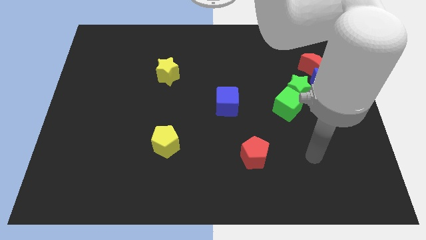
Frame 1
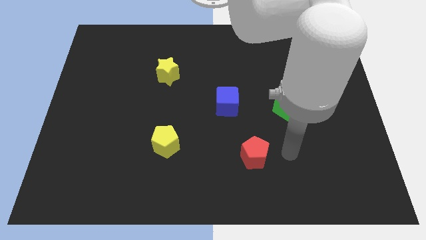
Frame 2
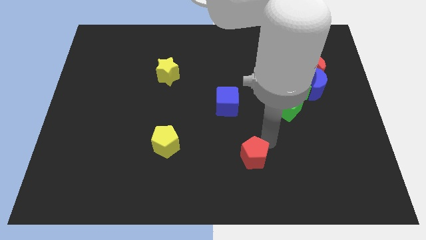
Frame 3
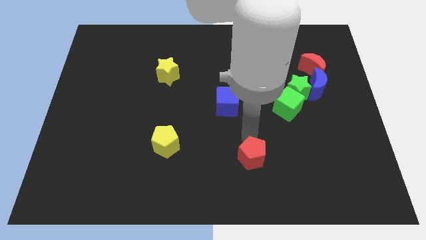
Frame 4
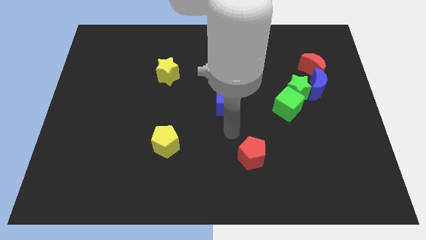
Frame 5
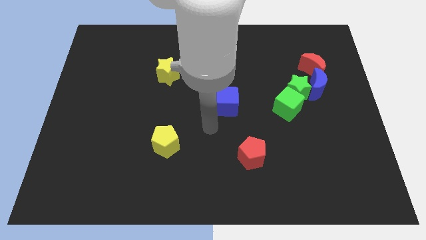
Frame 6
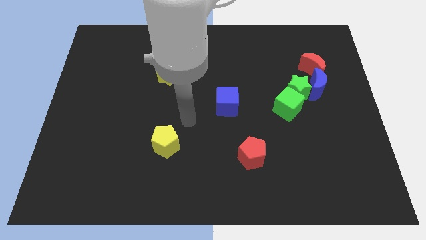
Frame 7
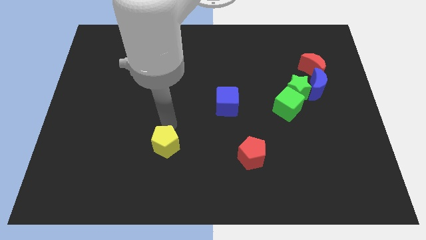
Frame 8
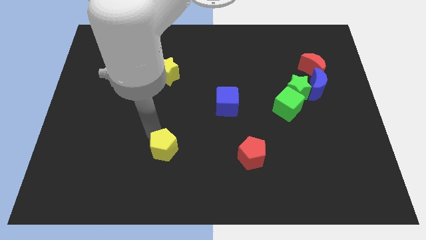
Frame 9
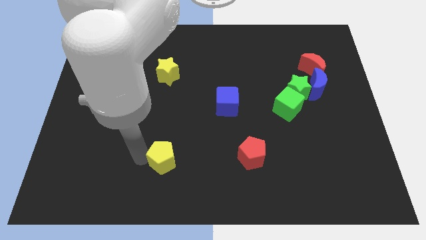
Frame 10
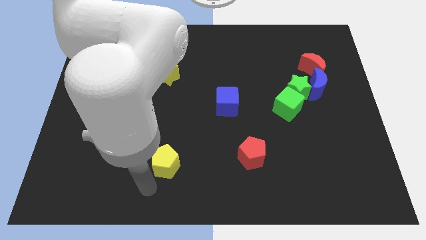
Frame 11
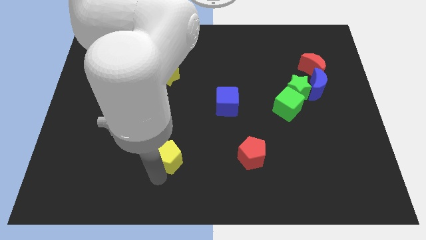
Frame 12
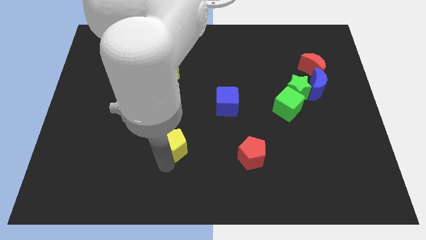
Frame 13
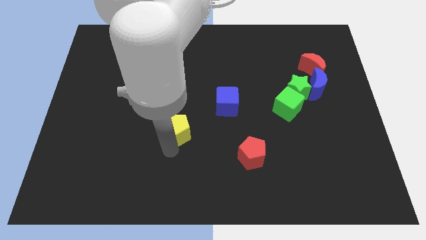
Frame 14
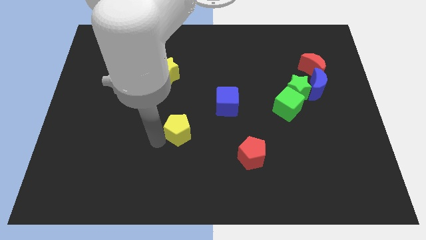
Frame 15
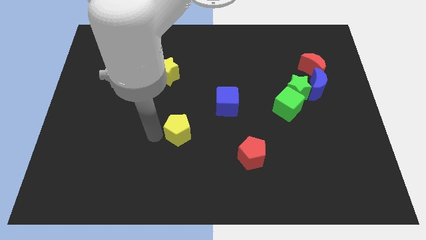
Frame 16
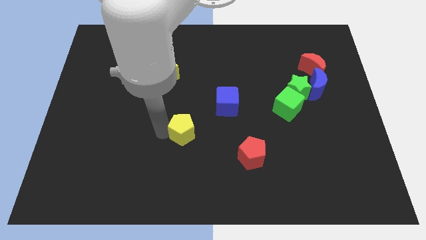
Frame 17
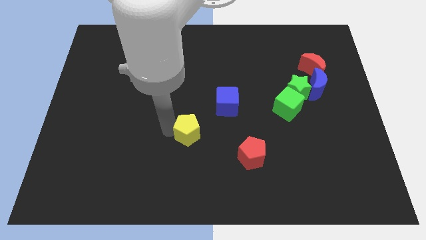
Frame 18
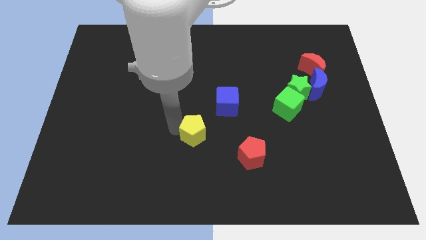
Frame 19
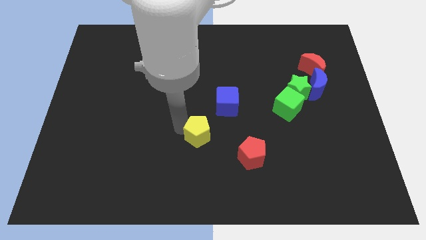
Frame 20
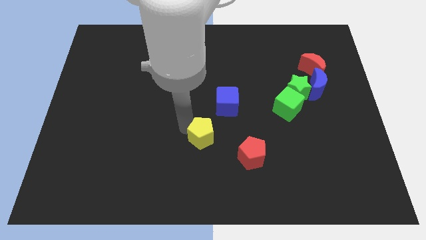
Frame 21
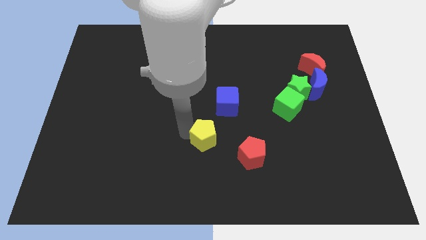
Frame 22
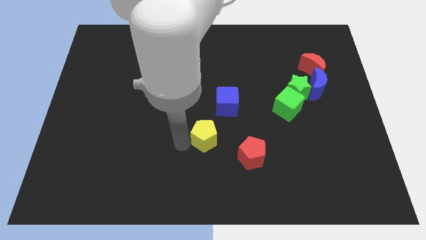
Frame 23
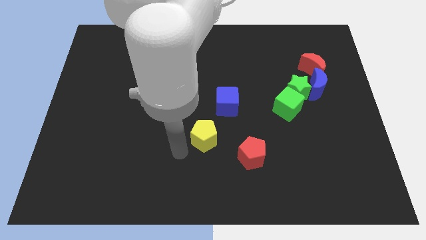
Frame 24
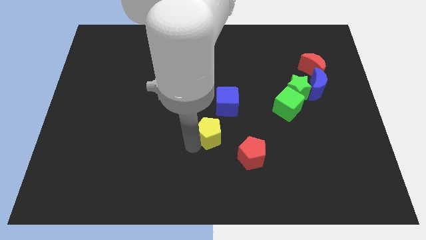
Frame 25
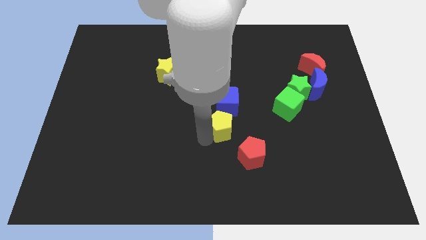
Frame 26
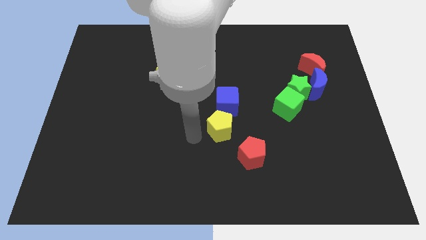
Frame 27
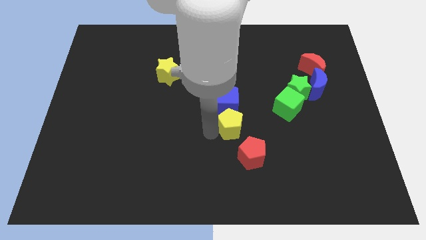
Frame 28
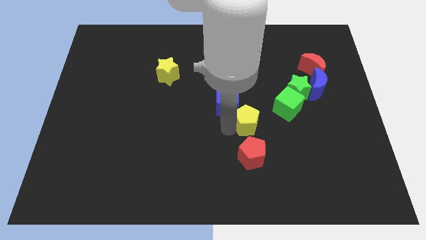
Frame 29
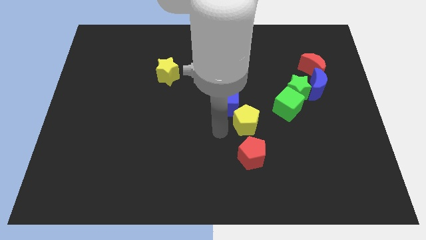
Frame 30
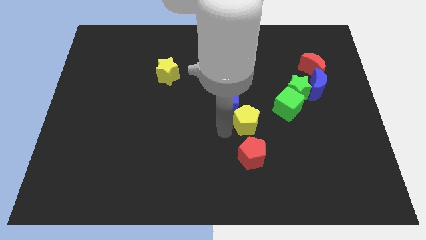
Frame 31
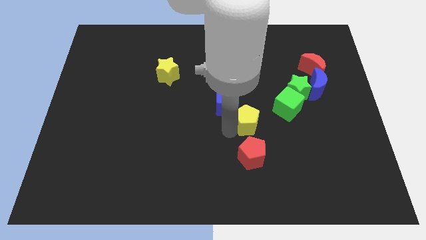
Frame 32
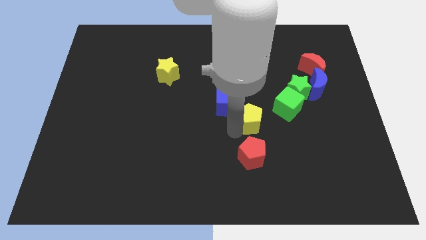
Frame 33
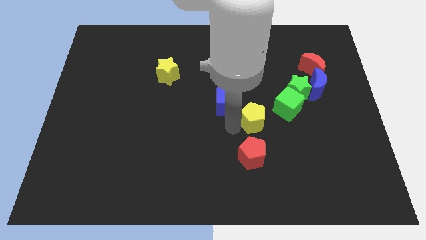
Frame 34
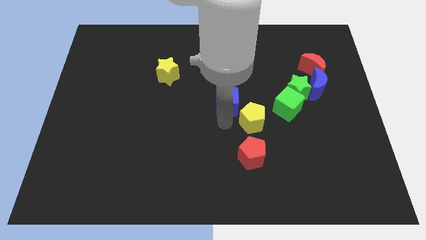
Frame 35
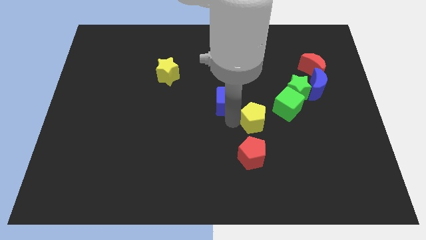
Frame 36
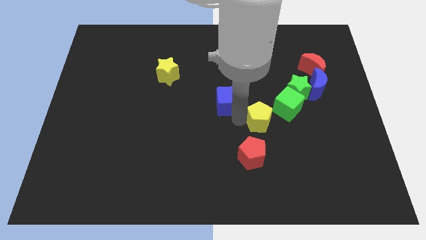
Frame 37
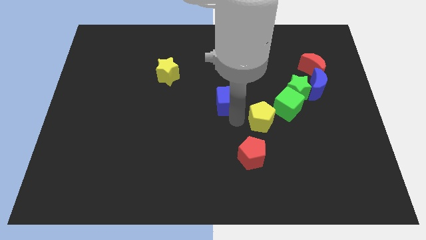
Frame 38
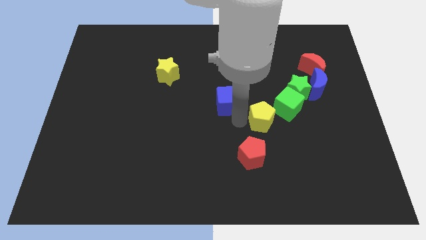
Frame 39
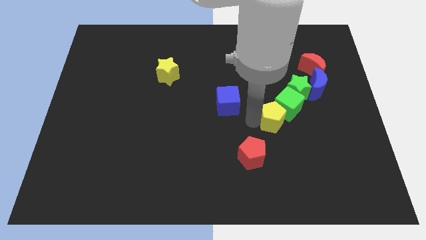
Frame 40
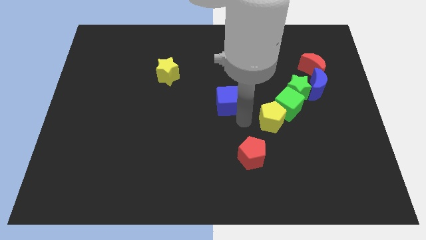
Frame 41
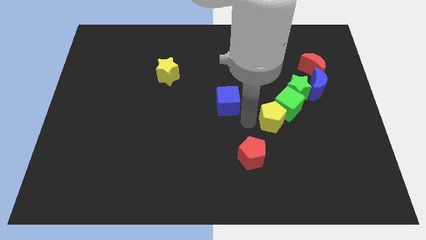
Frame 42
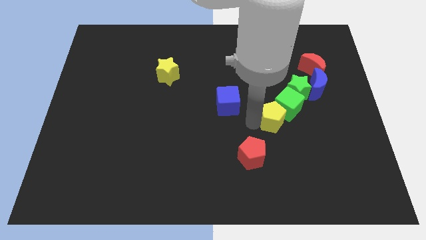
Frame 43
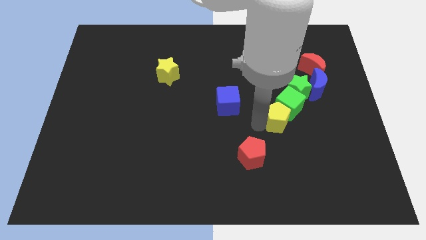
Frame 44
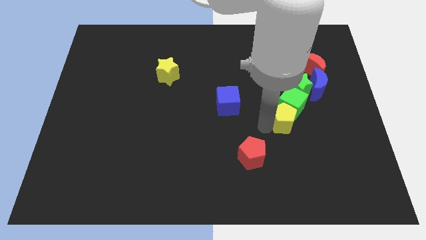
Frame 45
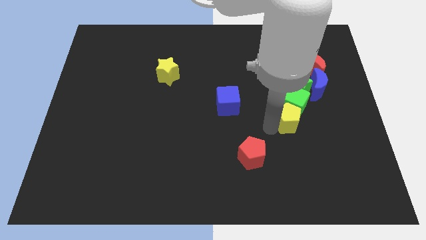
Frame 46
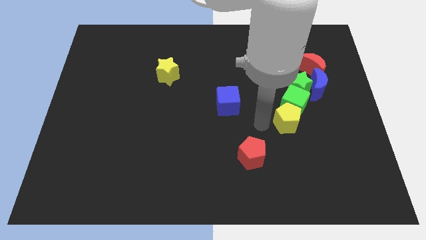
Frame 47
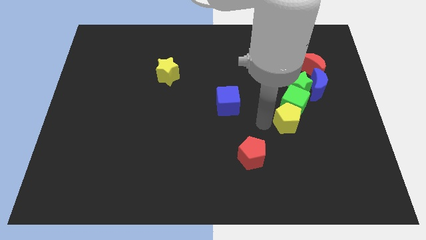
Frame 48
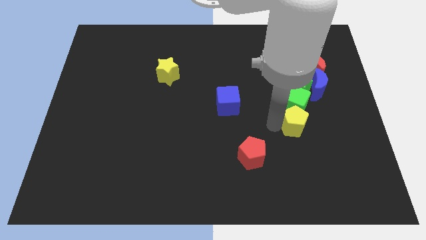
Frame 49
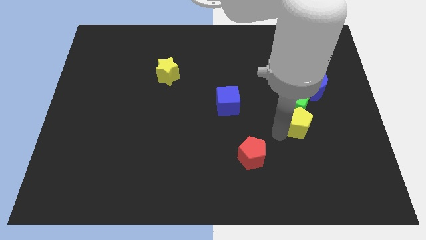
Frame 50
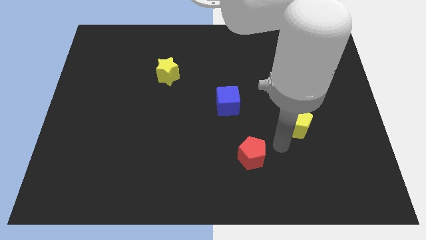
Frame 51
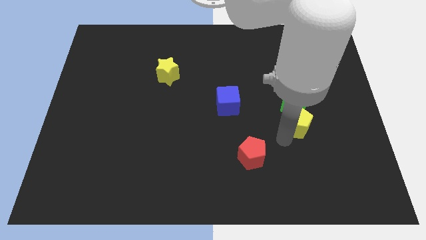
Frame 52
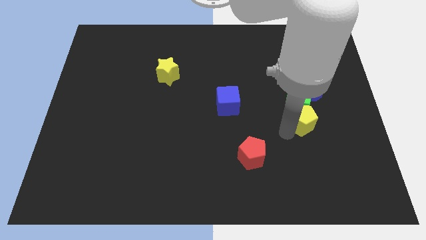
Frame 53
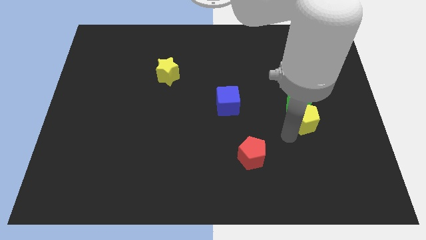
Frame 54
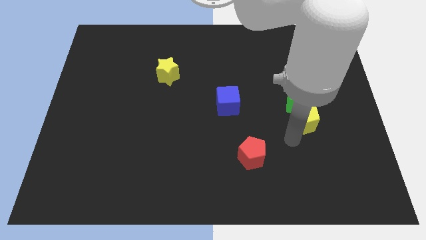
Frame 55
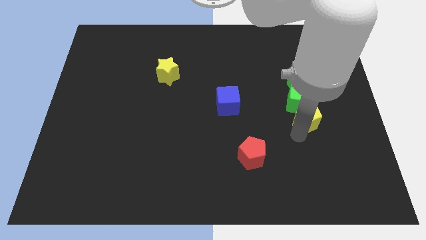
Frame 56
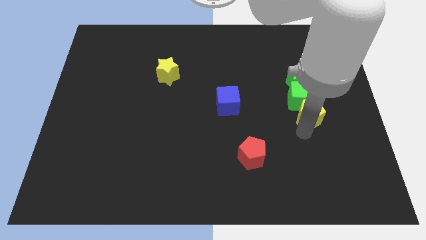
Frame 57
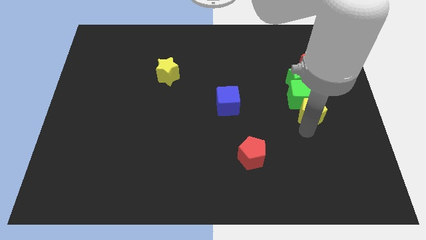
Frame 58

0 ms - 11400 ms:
slide the yellow pentagon to the bottom of the red moon

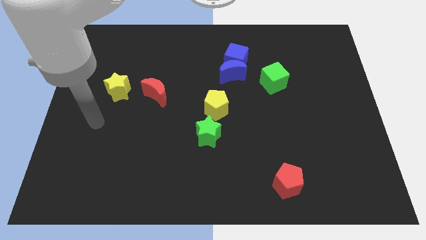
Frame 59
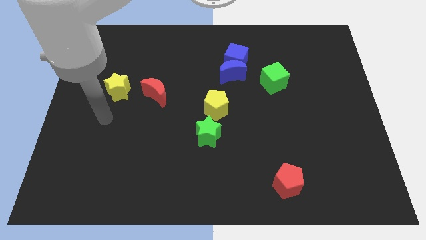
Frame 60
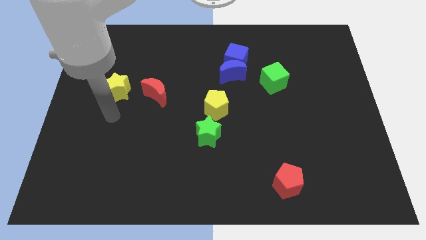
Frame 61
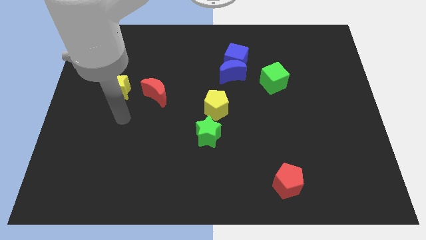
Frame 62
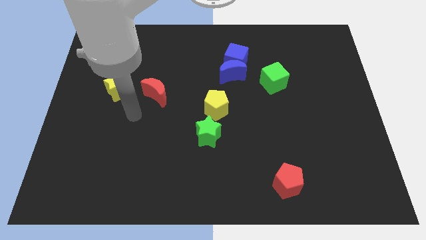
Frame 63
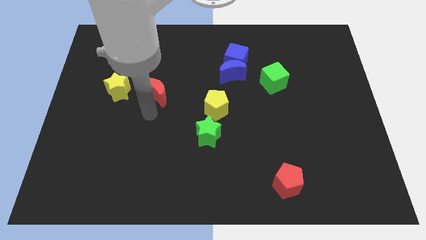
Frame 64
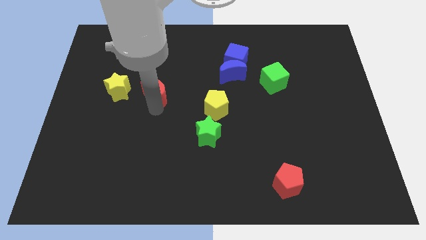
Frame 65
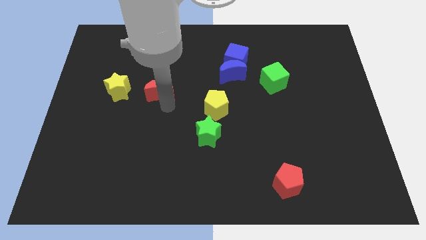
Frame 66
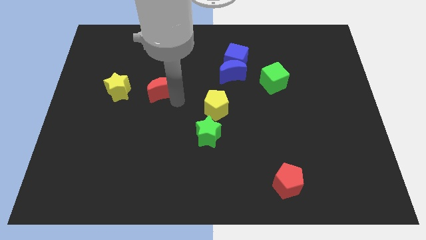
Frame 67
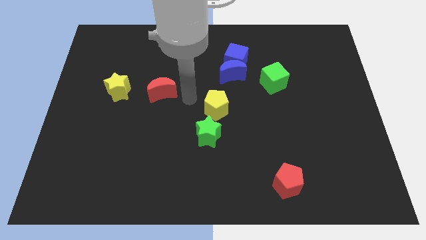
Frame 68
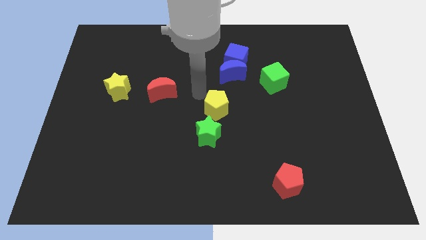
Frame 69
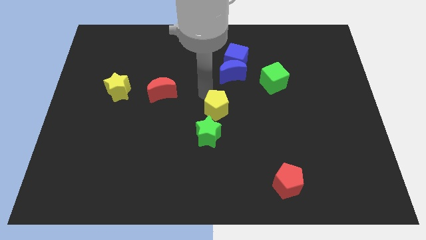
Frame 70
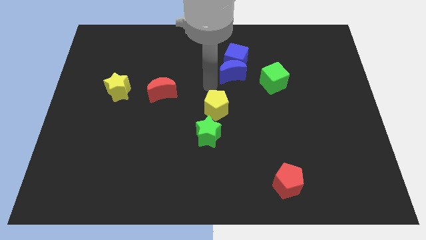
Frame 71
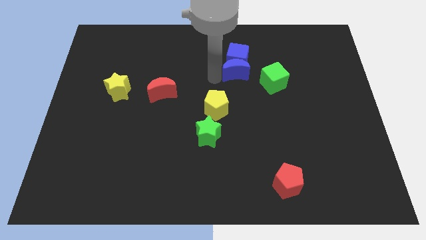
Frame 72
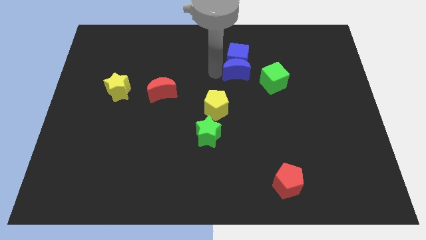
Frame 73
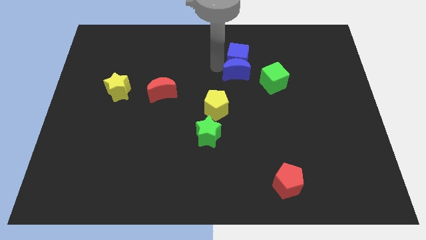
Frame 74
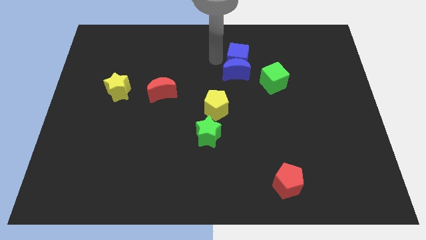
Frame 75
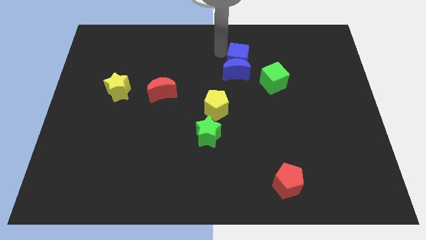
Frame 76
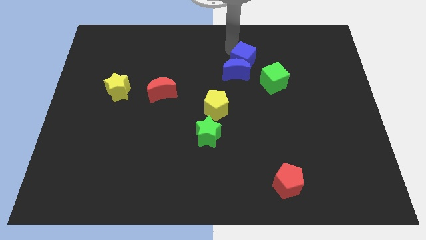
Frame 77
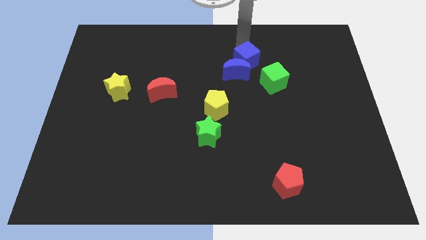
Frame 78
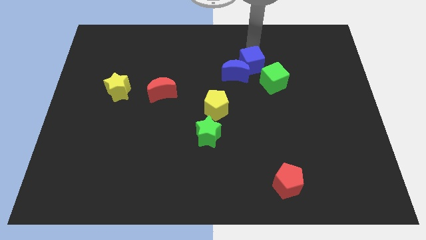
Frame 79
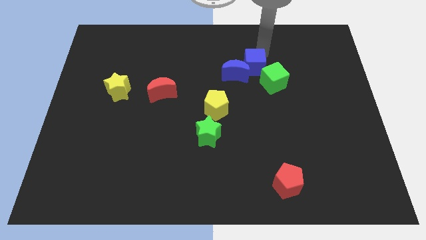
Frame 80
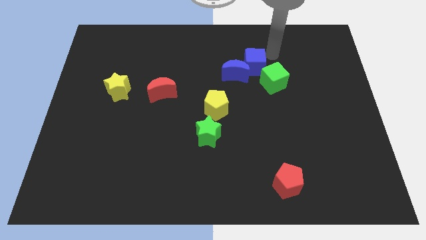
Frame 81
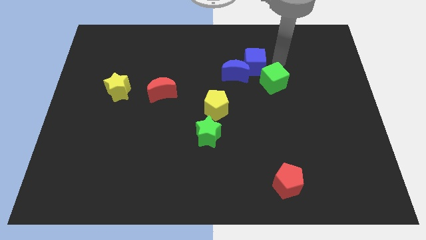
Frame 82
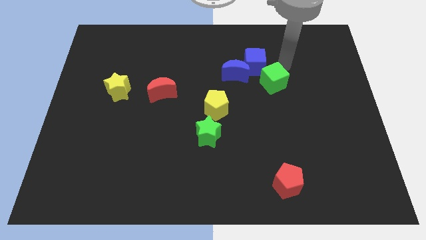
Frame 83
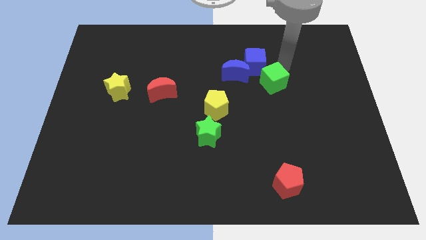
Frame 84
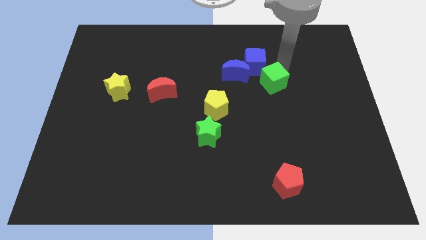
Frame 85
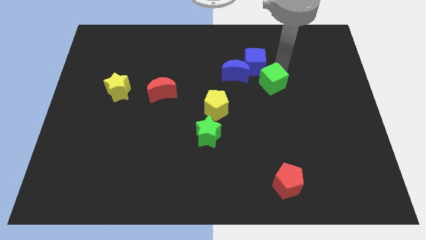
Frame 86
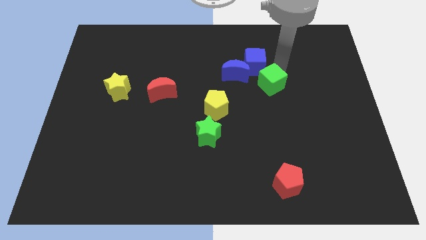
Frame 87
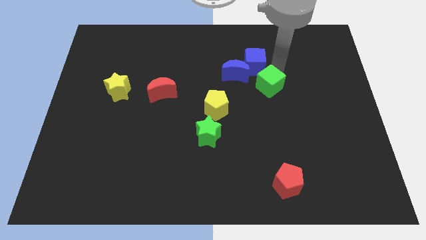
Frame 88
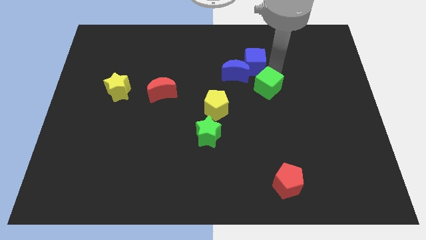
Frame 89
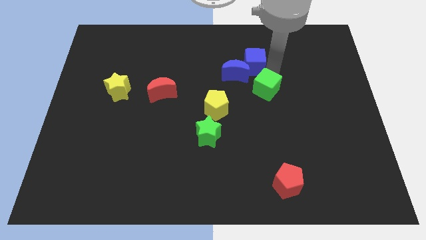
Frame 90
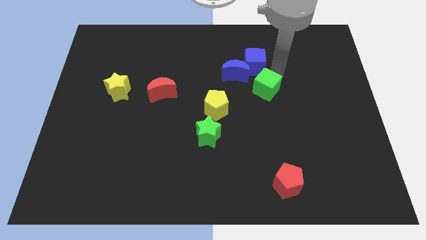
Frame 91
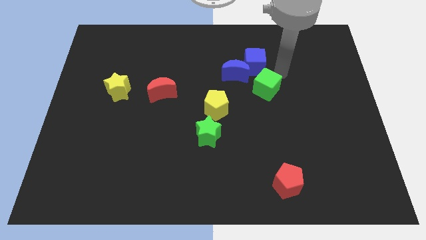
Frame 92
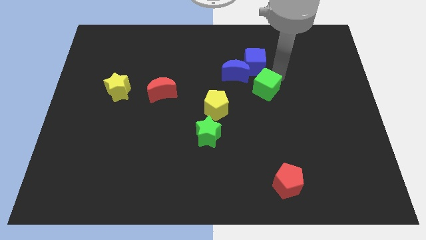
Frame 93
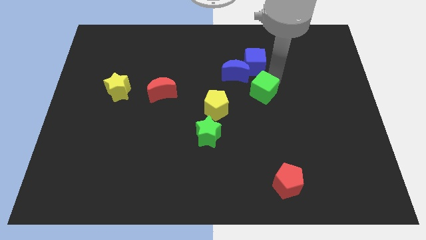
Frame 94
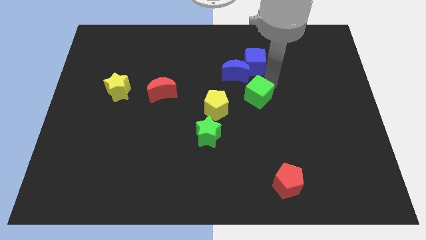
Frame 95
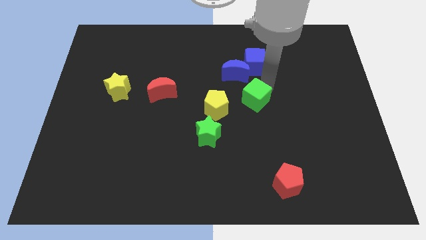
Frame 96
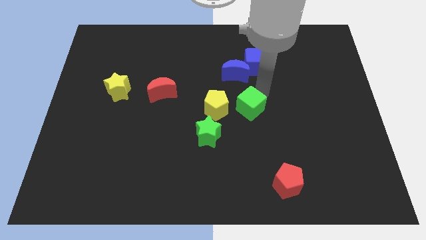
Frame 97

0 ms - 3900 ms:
push the green cube to the top right of the green star
